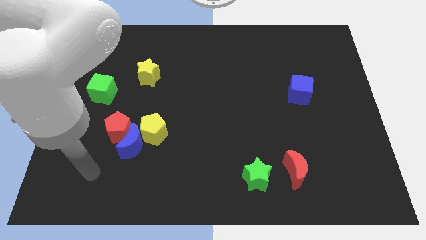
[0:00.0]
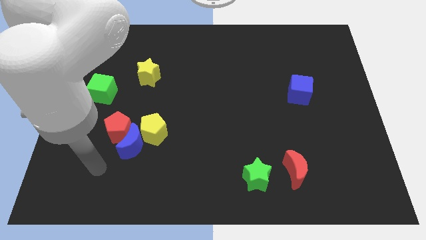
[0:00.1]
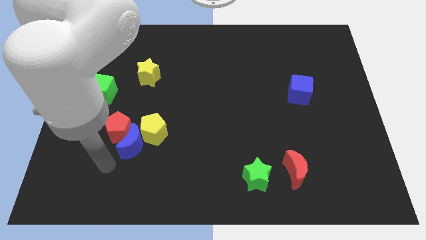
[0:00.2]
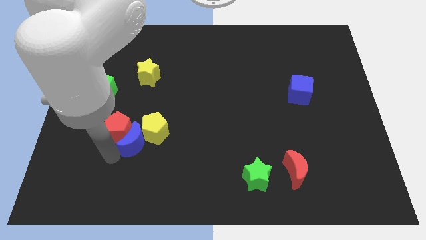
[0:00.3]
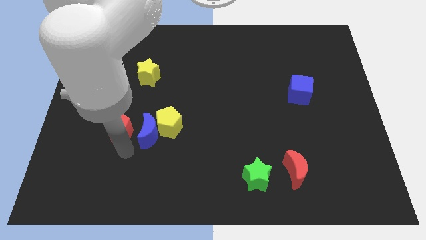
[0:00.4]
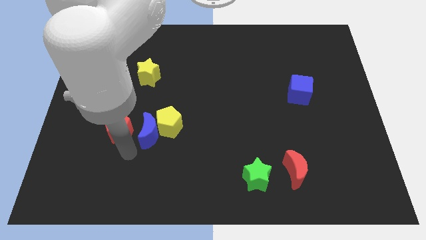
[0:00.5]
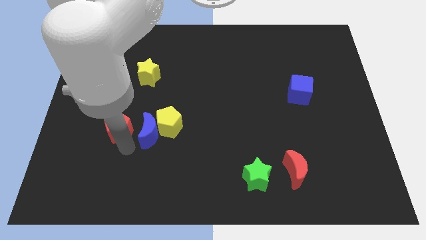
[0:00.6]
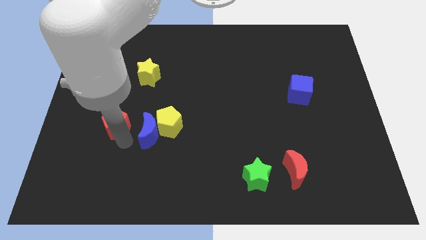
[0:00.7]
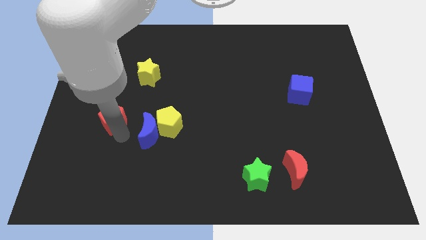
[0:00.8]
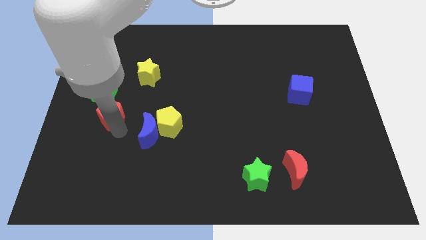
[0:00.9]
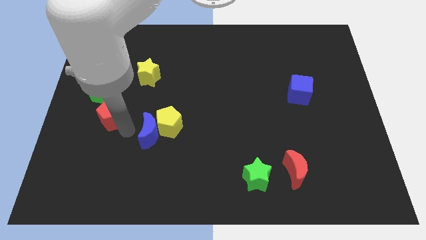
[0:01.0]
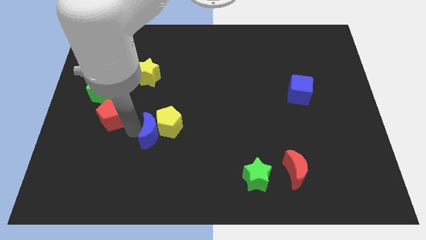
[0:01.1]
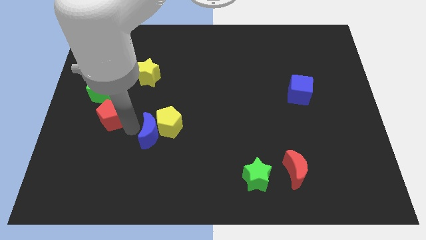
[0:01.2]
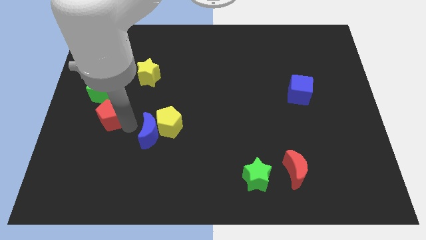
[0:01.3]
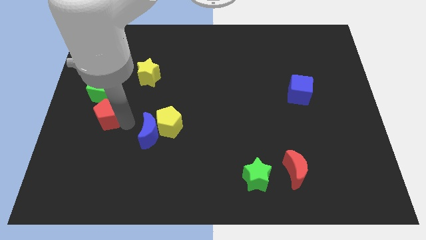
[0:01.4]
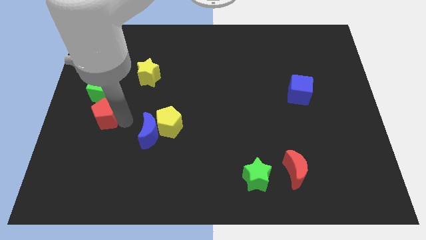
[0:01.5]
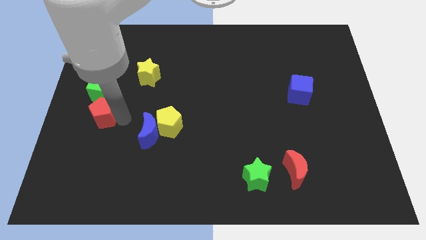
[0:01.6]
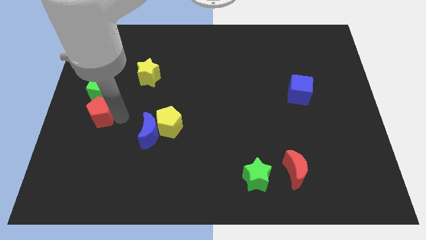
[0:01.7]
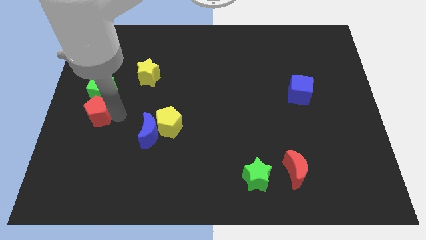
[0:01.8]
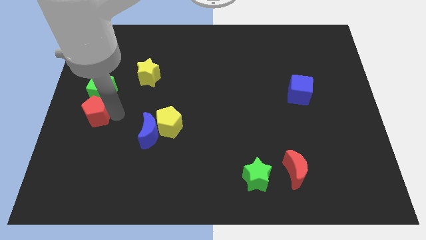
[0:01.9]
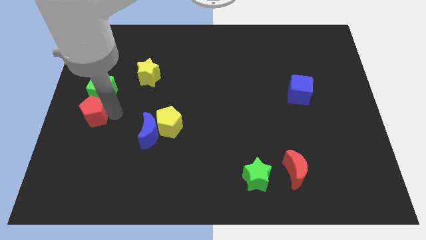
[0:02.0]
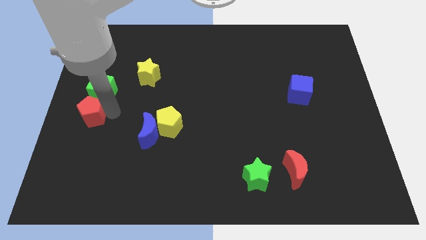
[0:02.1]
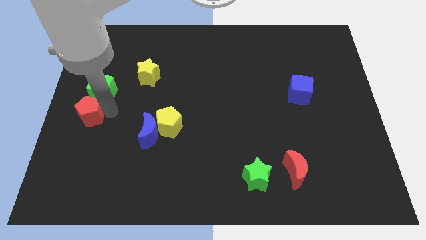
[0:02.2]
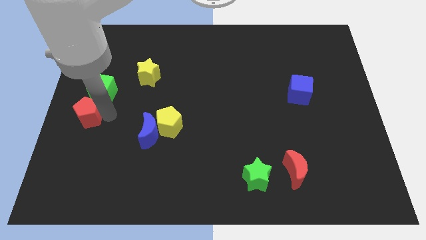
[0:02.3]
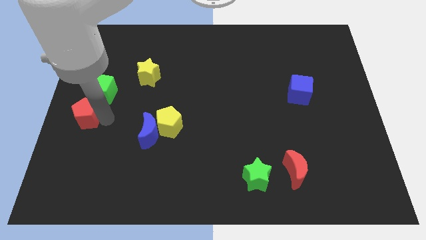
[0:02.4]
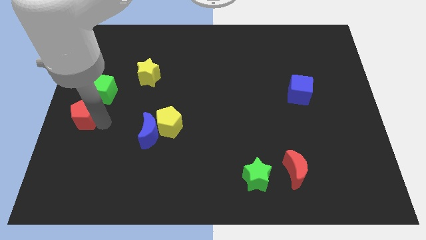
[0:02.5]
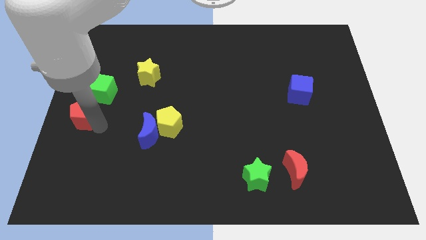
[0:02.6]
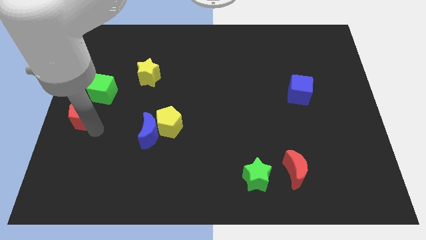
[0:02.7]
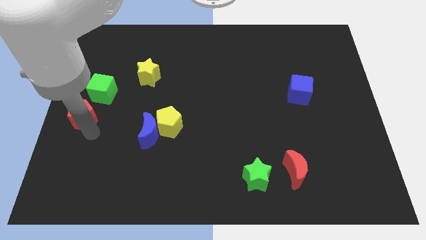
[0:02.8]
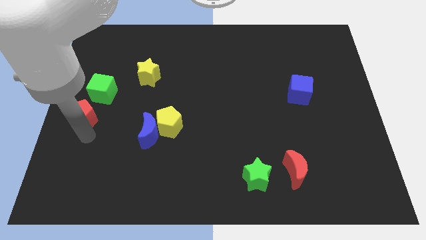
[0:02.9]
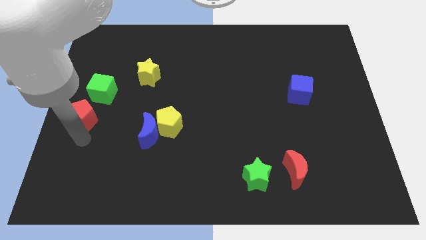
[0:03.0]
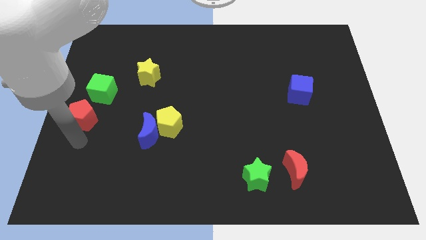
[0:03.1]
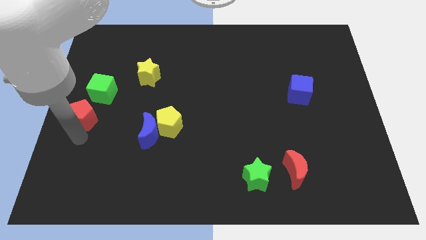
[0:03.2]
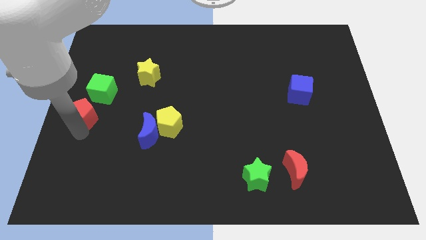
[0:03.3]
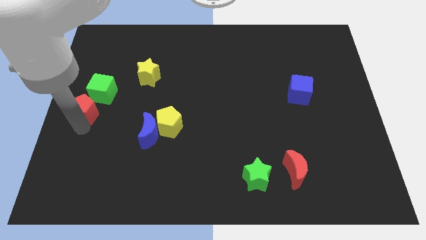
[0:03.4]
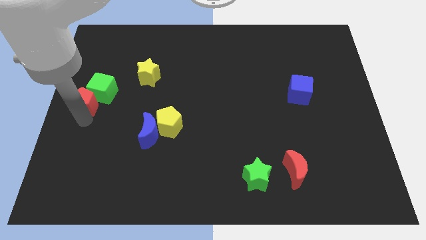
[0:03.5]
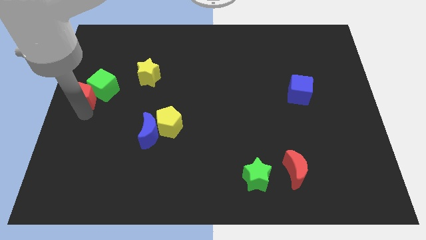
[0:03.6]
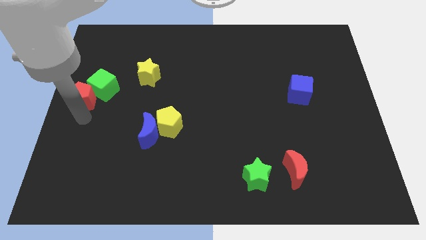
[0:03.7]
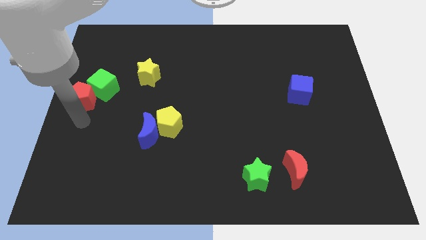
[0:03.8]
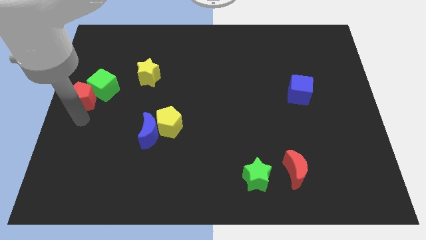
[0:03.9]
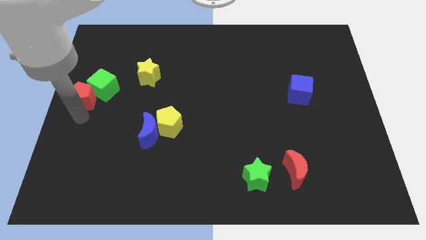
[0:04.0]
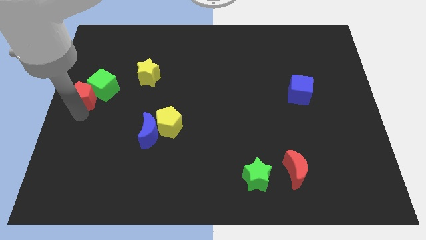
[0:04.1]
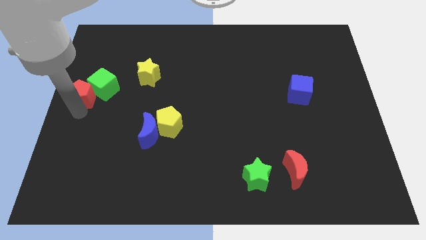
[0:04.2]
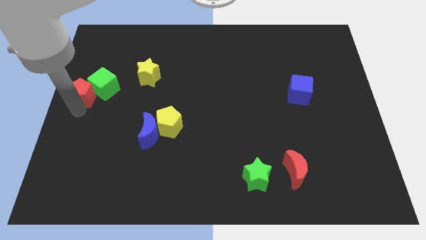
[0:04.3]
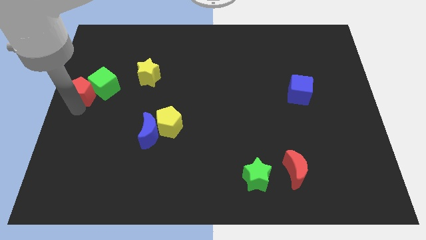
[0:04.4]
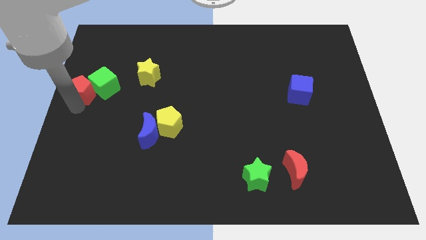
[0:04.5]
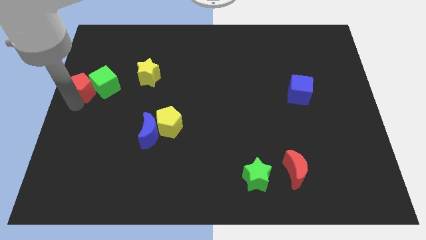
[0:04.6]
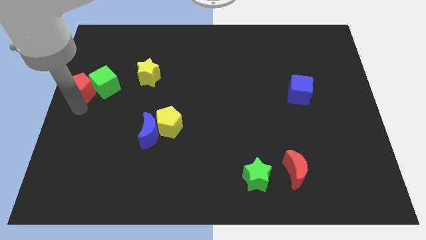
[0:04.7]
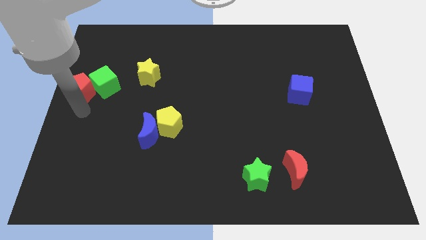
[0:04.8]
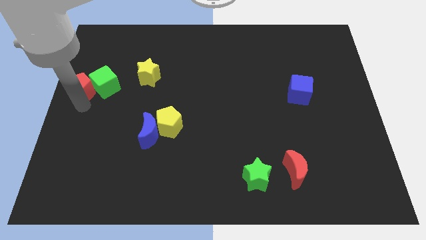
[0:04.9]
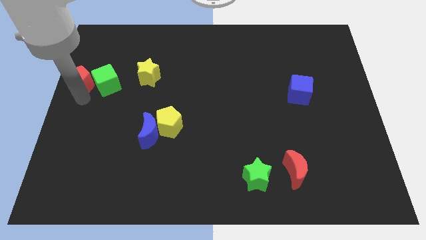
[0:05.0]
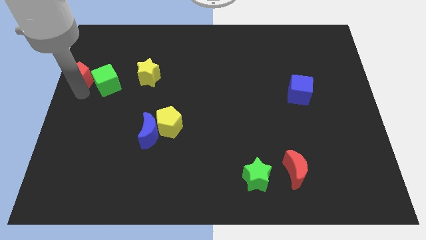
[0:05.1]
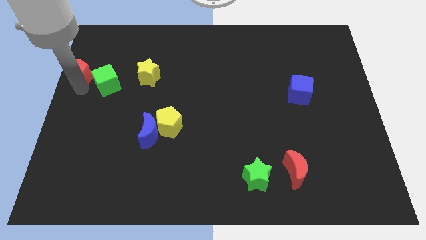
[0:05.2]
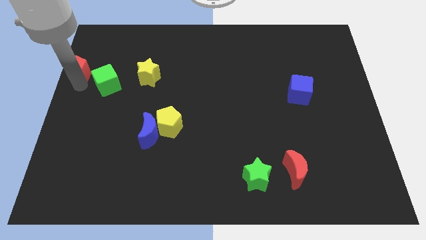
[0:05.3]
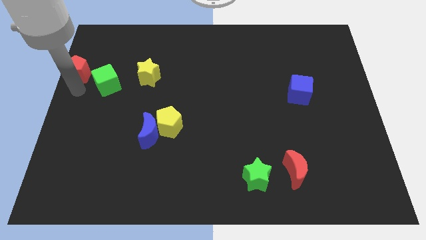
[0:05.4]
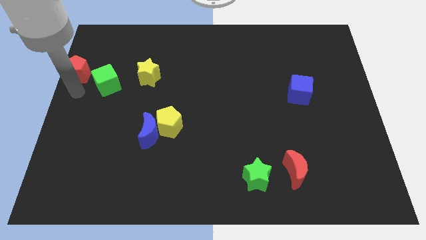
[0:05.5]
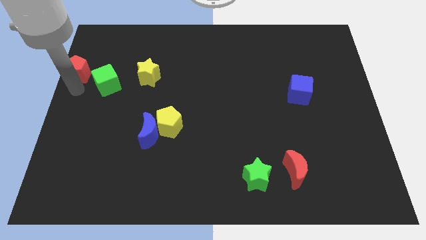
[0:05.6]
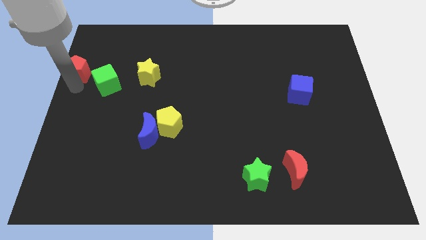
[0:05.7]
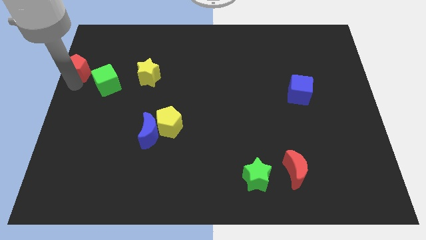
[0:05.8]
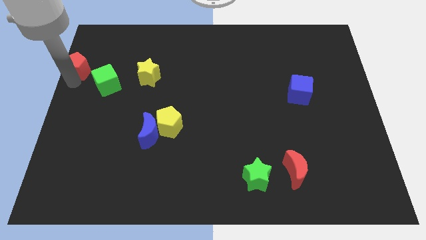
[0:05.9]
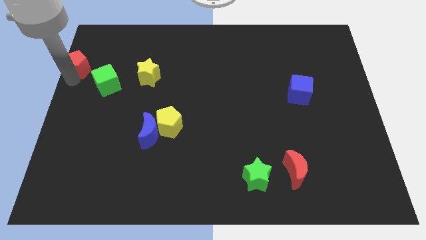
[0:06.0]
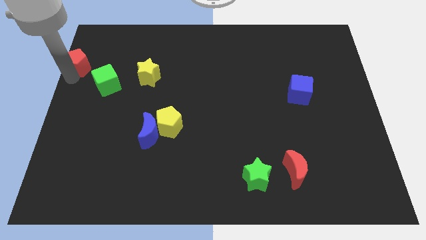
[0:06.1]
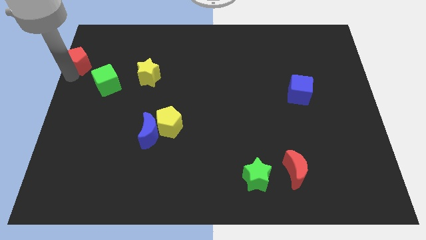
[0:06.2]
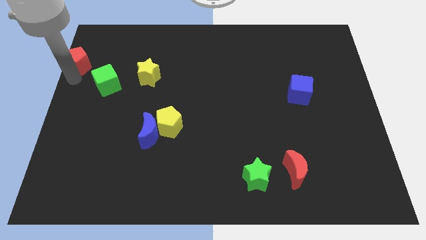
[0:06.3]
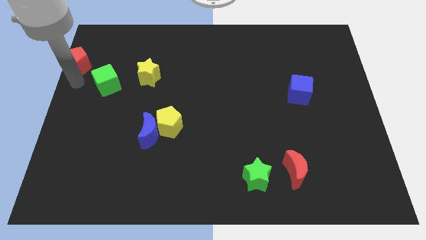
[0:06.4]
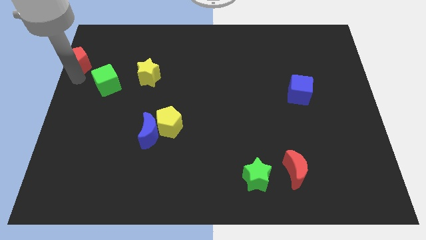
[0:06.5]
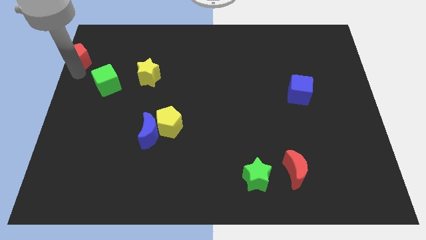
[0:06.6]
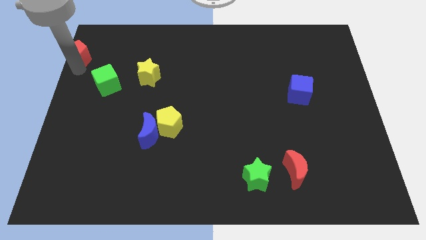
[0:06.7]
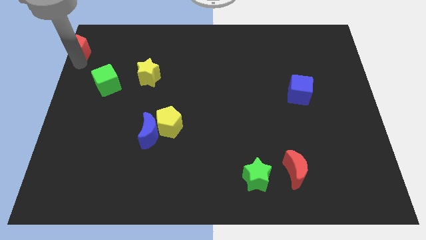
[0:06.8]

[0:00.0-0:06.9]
put the red pentagon to the top left of the board
